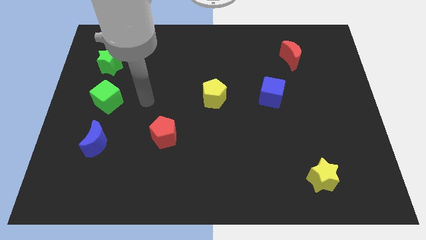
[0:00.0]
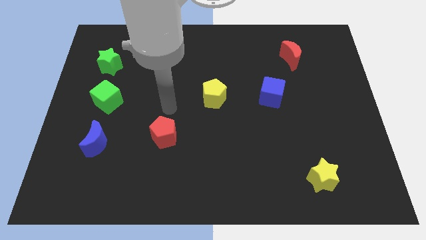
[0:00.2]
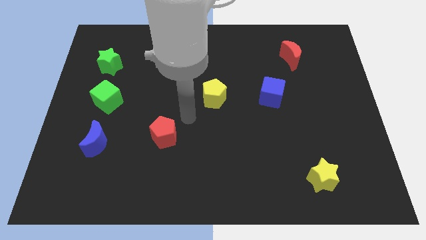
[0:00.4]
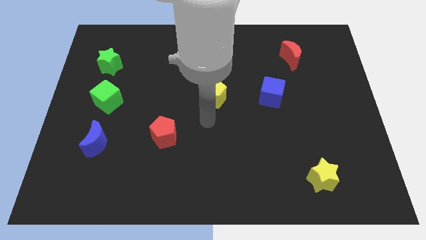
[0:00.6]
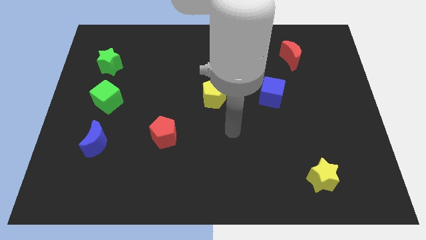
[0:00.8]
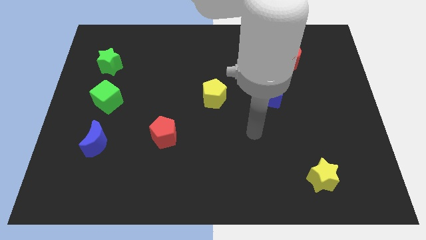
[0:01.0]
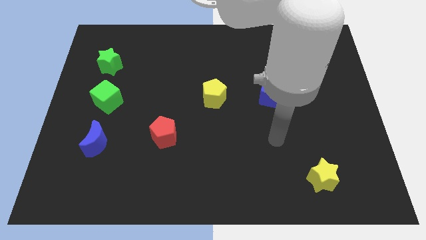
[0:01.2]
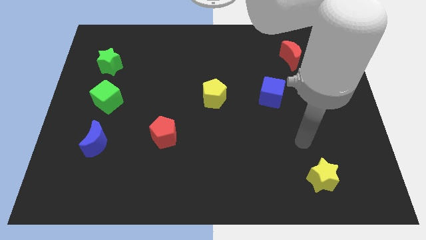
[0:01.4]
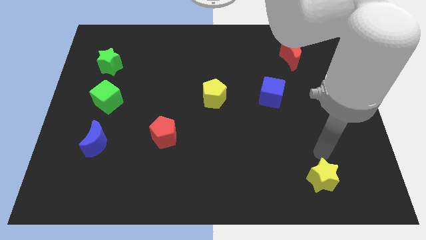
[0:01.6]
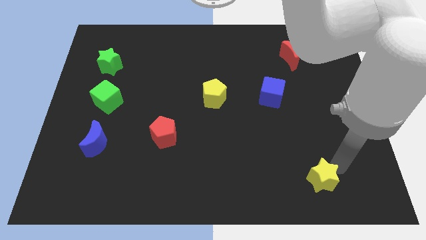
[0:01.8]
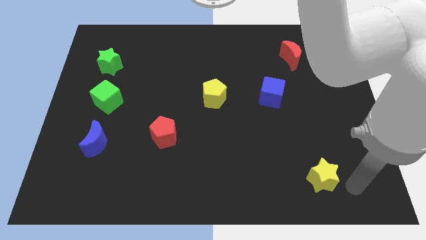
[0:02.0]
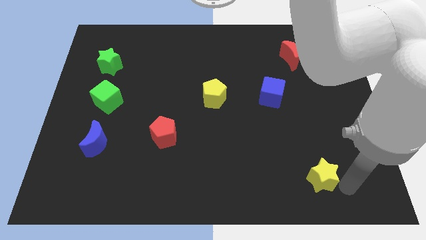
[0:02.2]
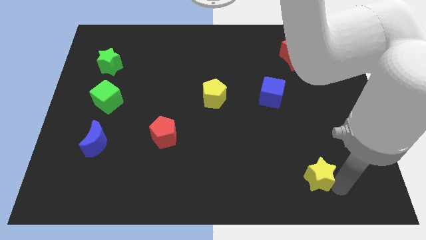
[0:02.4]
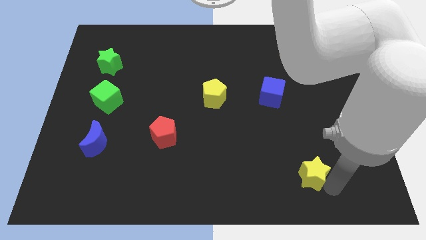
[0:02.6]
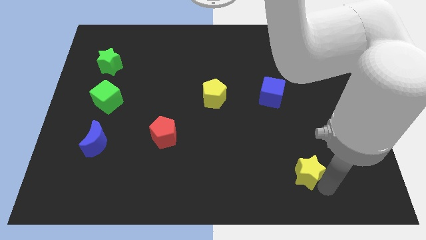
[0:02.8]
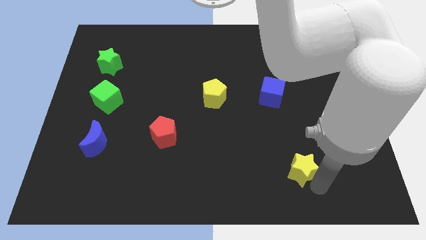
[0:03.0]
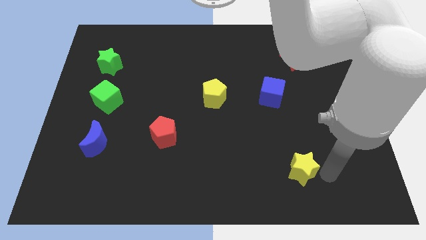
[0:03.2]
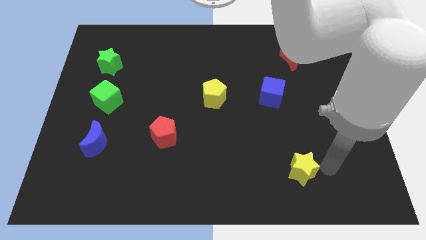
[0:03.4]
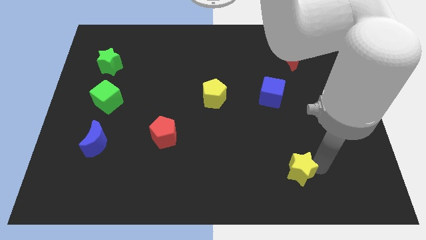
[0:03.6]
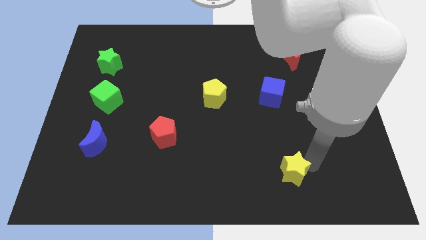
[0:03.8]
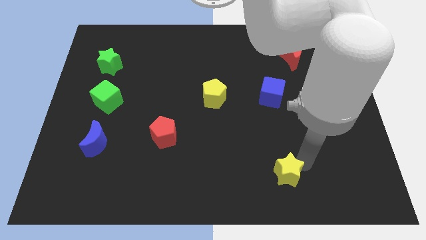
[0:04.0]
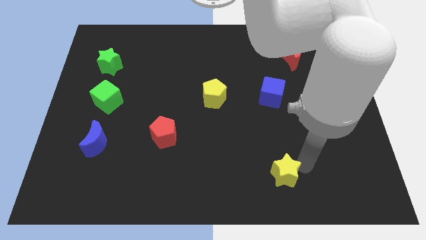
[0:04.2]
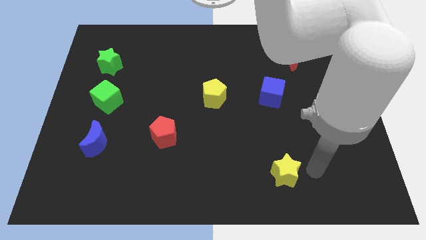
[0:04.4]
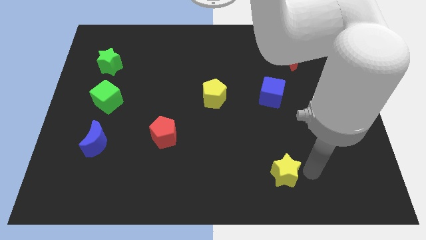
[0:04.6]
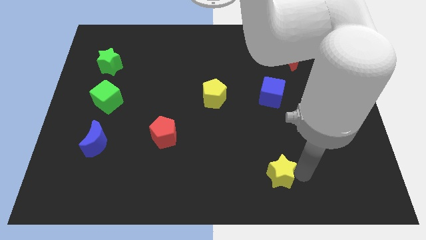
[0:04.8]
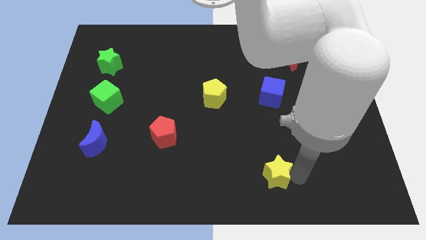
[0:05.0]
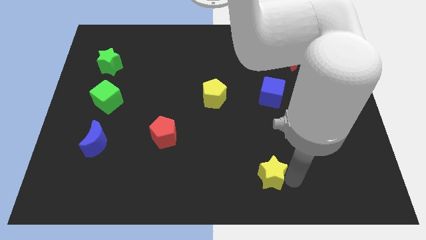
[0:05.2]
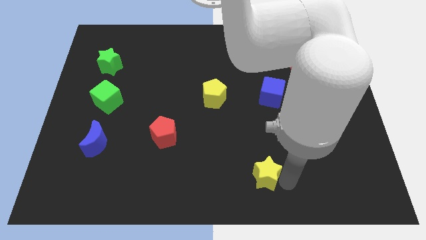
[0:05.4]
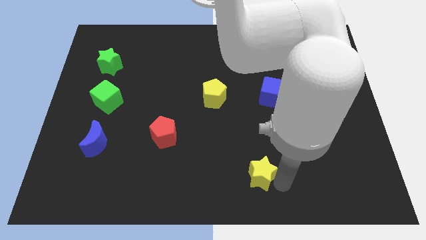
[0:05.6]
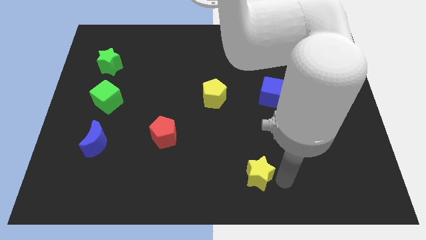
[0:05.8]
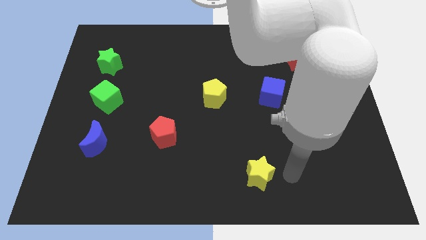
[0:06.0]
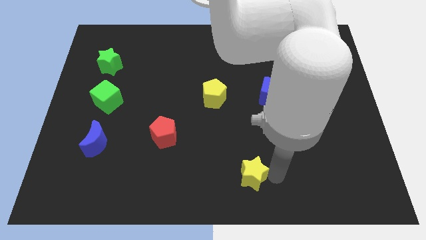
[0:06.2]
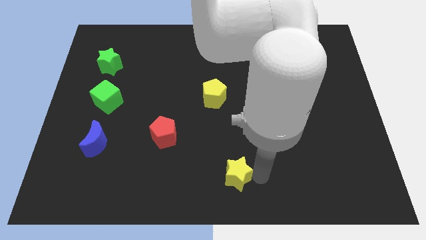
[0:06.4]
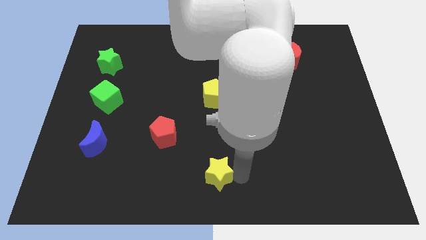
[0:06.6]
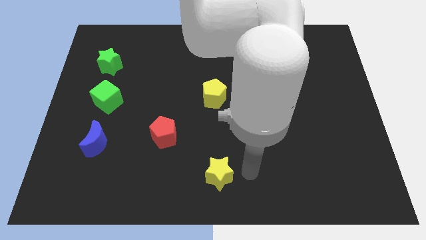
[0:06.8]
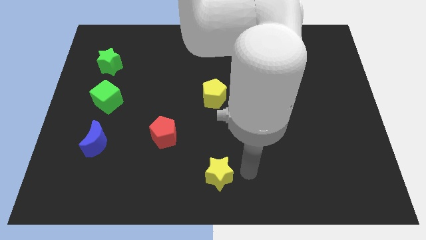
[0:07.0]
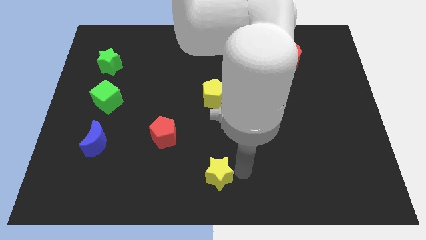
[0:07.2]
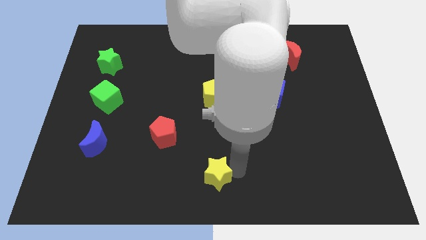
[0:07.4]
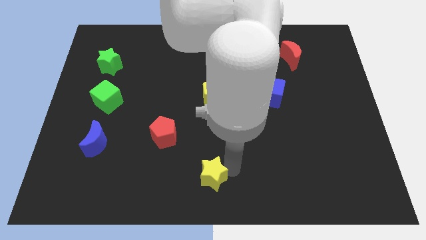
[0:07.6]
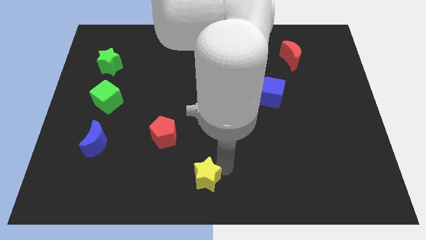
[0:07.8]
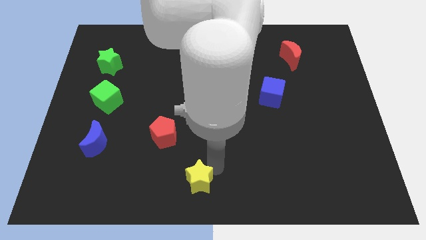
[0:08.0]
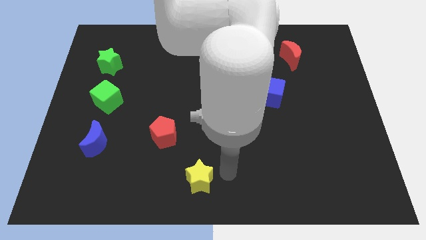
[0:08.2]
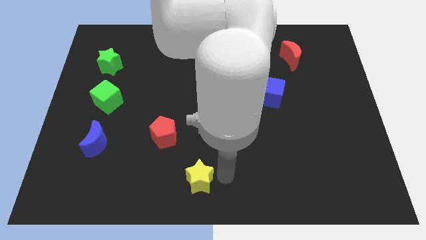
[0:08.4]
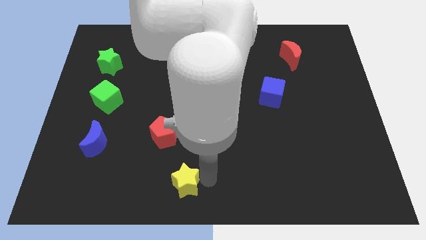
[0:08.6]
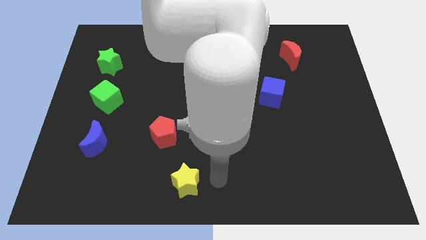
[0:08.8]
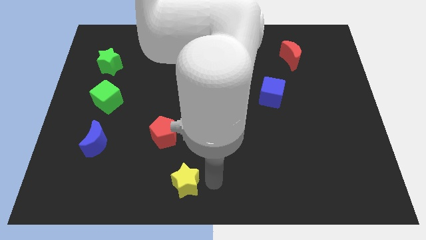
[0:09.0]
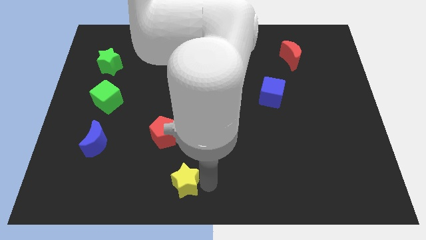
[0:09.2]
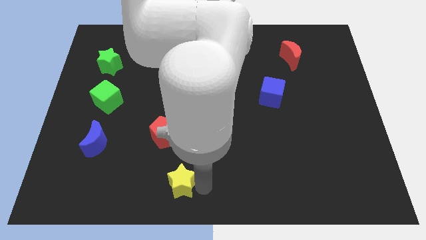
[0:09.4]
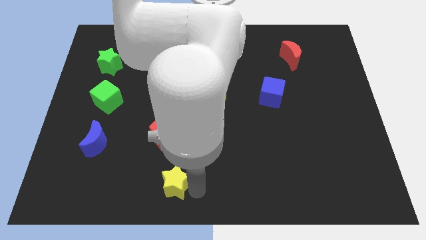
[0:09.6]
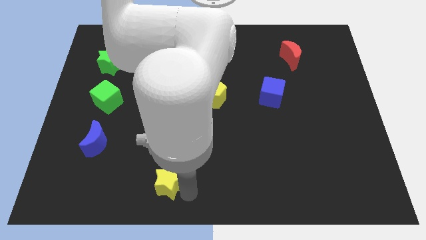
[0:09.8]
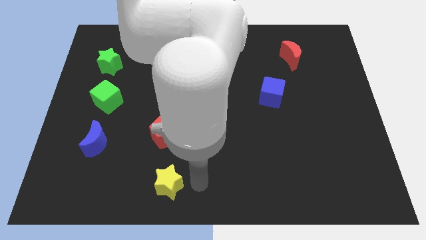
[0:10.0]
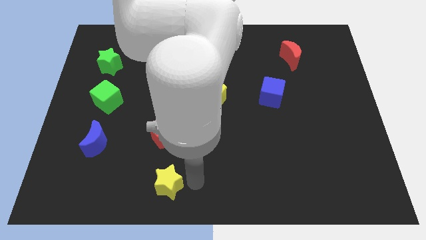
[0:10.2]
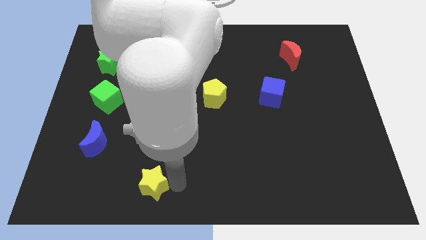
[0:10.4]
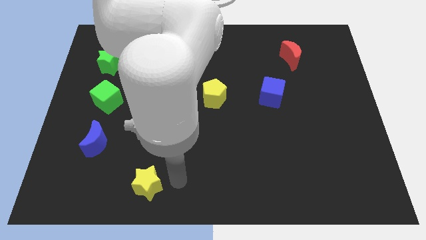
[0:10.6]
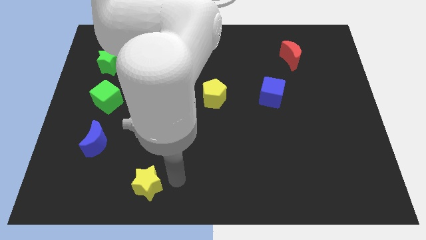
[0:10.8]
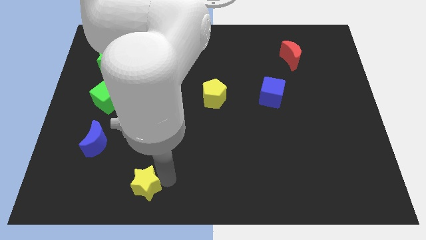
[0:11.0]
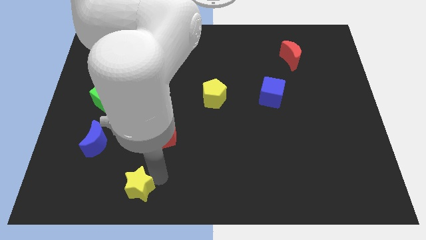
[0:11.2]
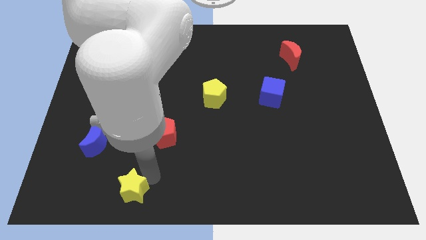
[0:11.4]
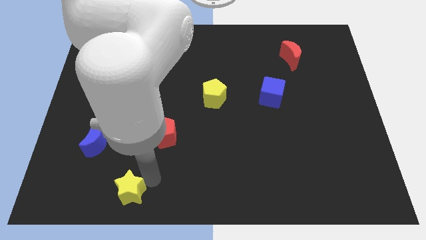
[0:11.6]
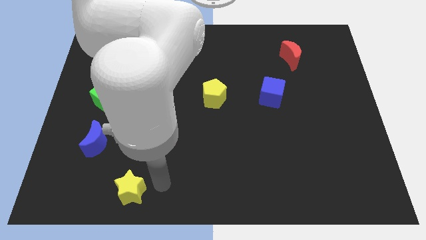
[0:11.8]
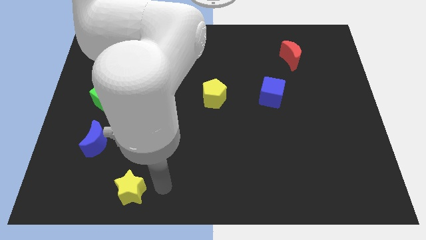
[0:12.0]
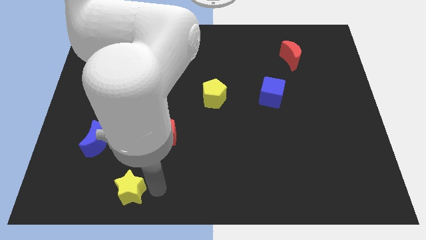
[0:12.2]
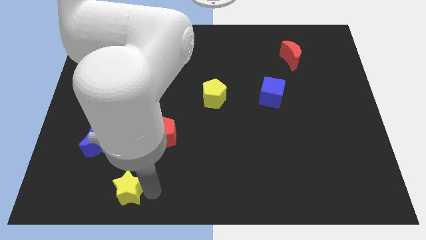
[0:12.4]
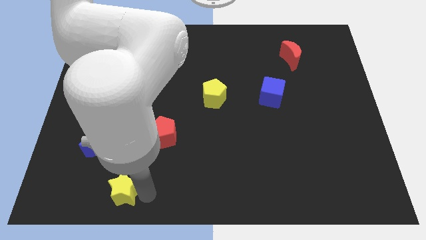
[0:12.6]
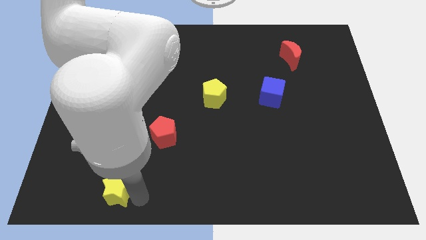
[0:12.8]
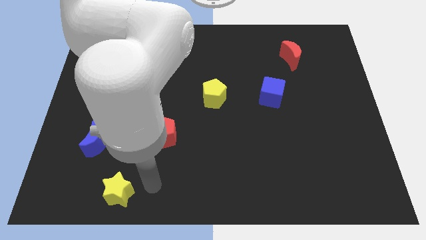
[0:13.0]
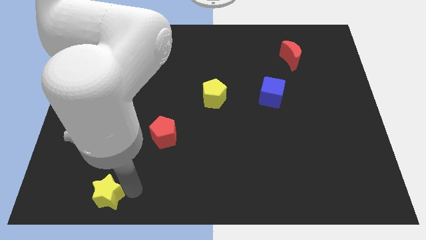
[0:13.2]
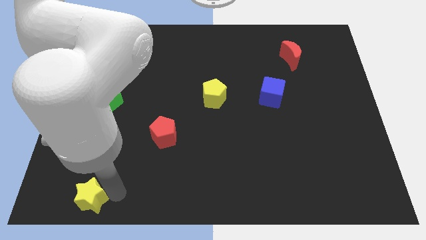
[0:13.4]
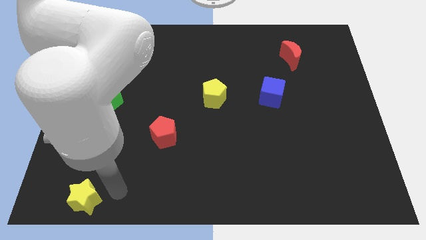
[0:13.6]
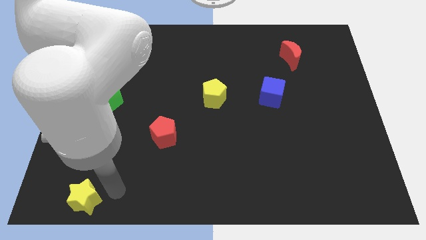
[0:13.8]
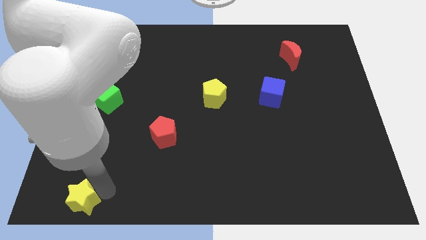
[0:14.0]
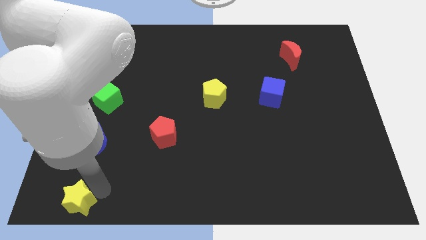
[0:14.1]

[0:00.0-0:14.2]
move the yellow star to the bottom left

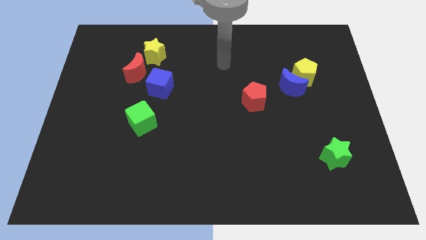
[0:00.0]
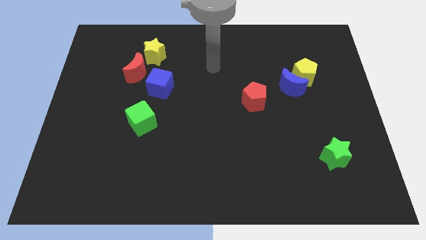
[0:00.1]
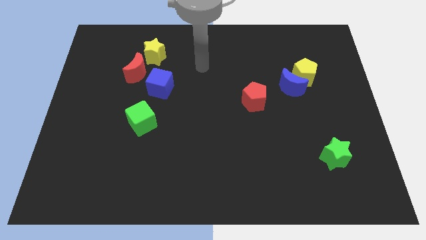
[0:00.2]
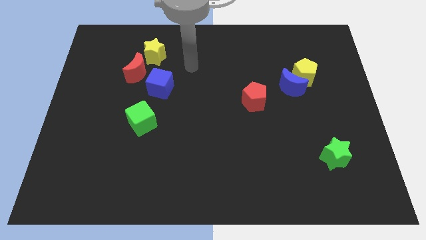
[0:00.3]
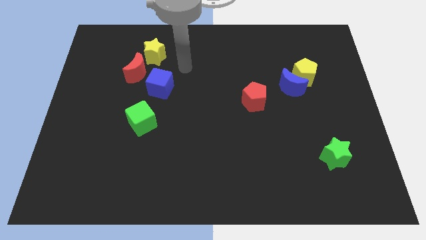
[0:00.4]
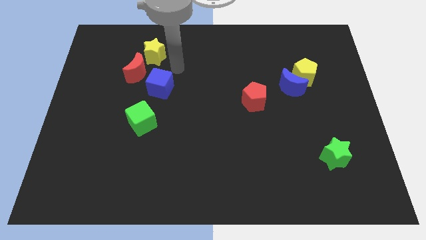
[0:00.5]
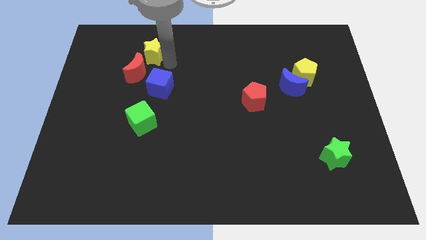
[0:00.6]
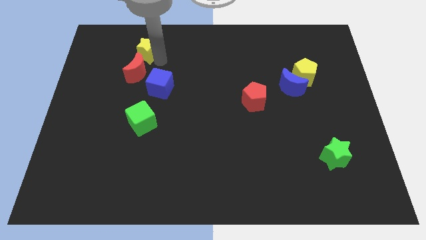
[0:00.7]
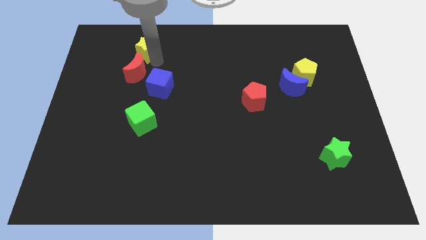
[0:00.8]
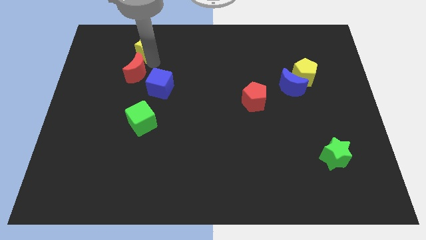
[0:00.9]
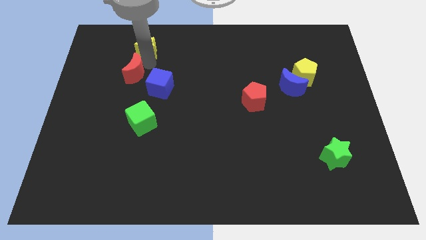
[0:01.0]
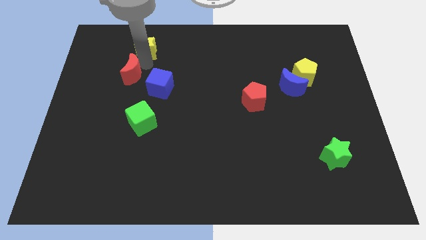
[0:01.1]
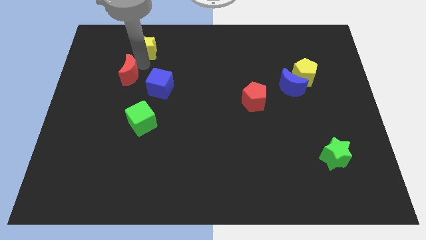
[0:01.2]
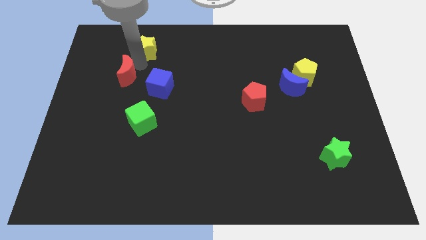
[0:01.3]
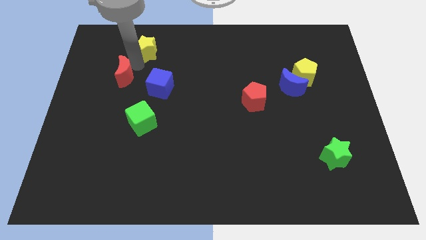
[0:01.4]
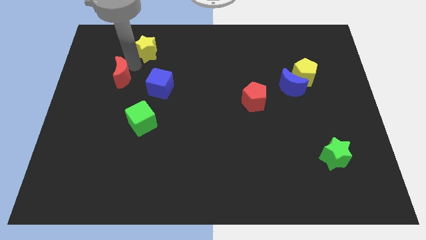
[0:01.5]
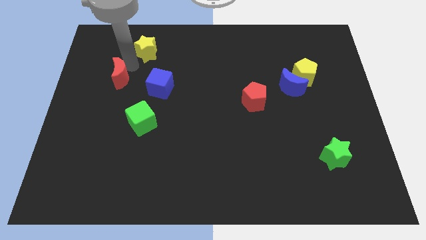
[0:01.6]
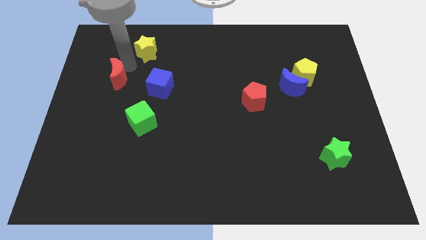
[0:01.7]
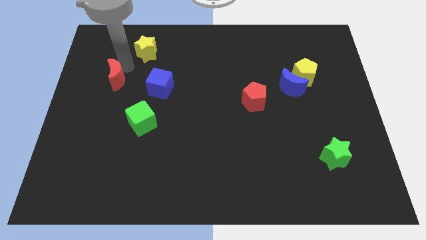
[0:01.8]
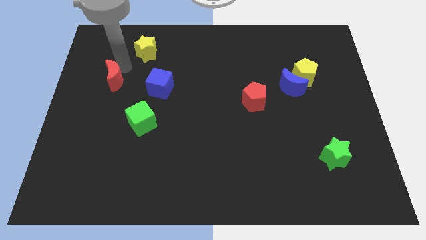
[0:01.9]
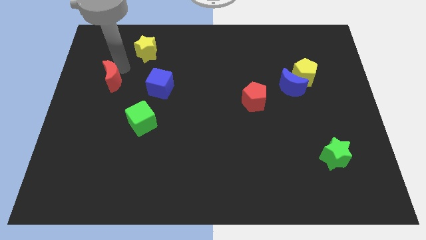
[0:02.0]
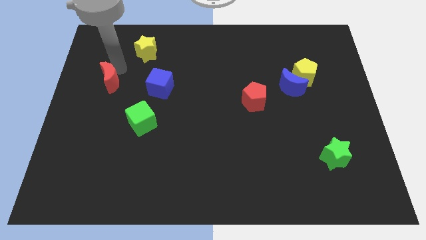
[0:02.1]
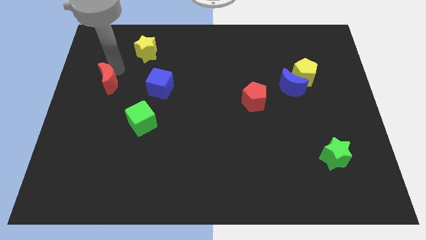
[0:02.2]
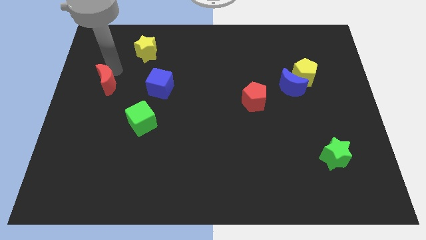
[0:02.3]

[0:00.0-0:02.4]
move the red moon to the left side of the board
